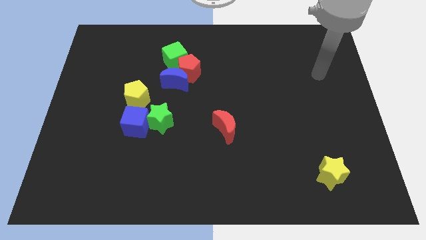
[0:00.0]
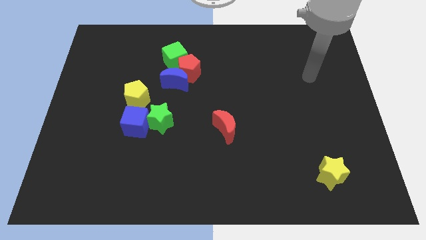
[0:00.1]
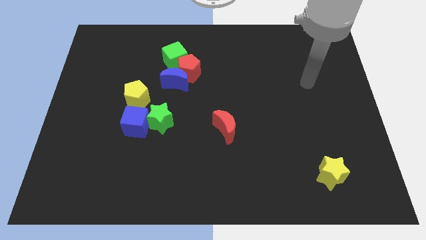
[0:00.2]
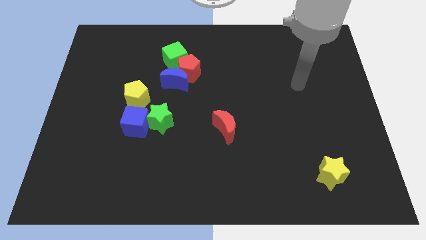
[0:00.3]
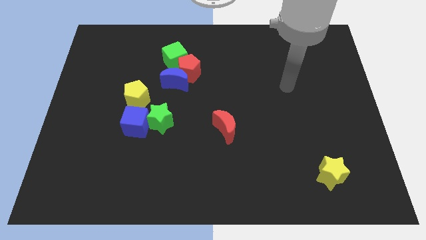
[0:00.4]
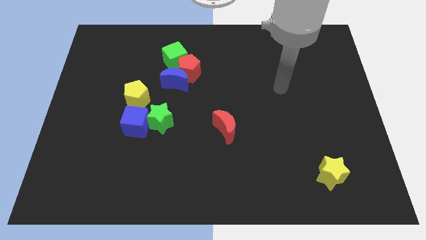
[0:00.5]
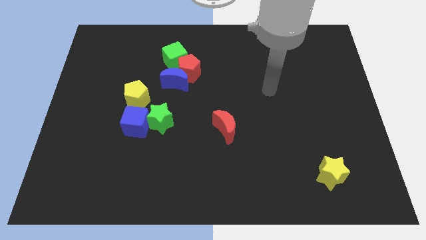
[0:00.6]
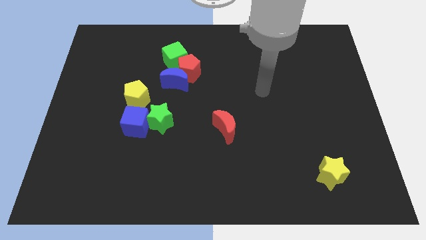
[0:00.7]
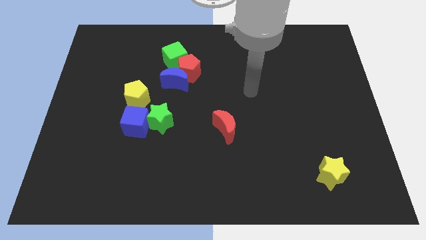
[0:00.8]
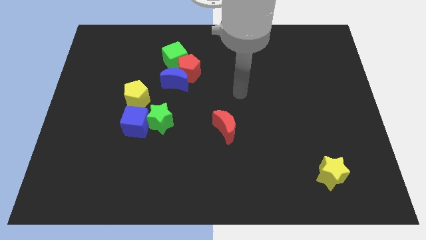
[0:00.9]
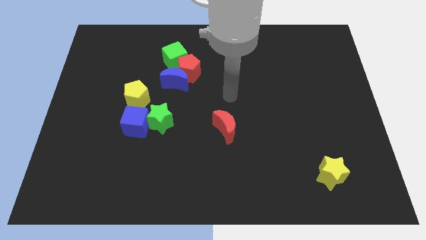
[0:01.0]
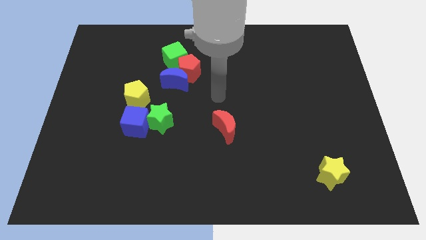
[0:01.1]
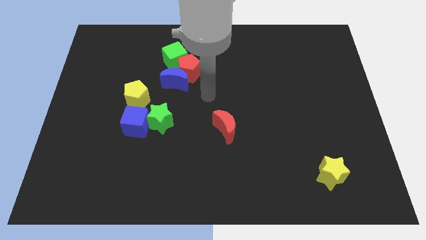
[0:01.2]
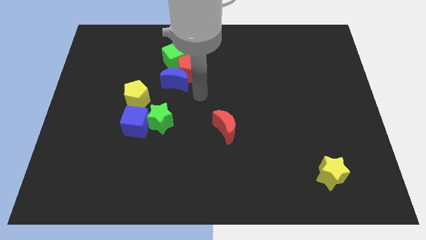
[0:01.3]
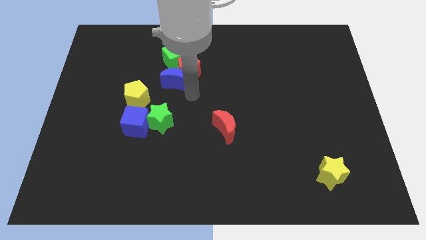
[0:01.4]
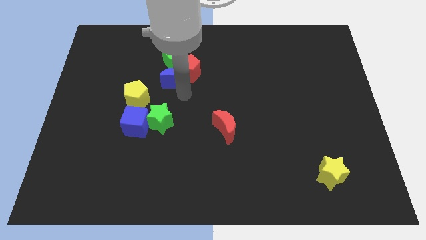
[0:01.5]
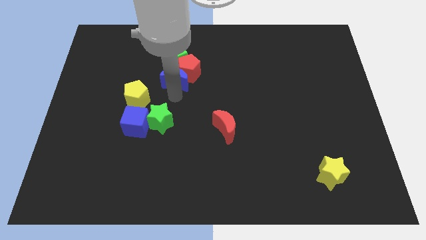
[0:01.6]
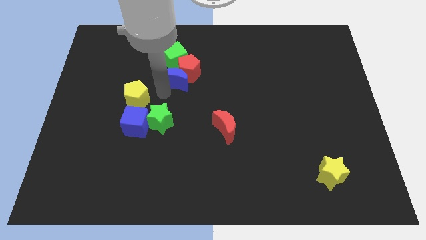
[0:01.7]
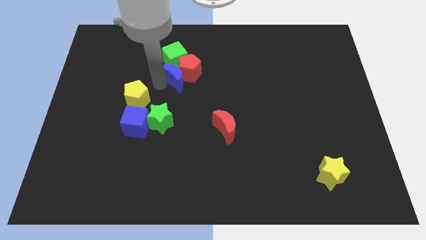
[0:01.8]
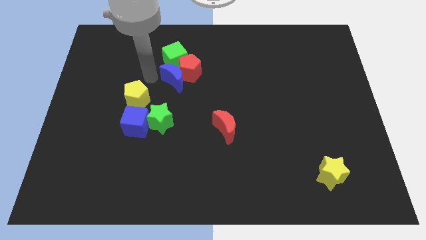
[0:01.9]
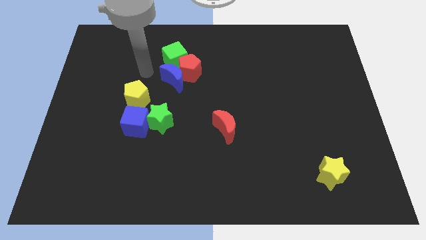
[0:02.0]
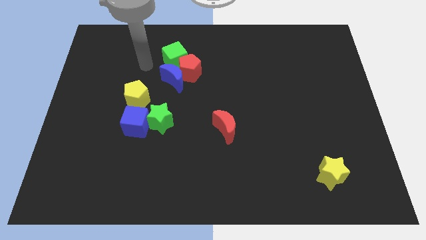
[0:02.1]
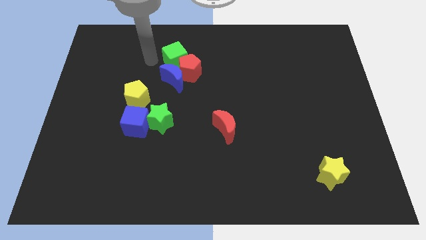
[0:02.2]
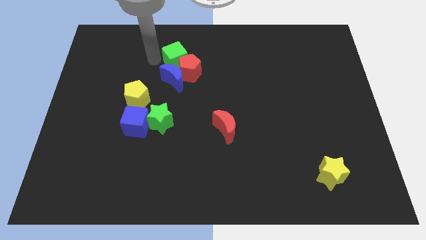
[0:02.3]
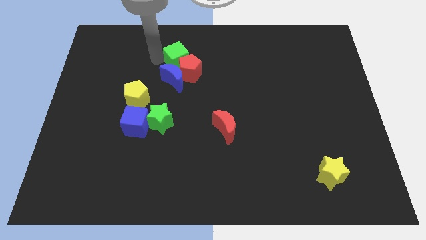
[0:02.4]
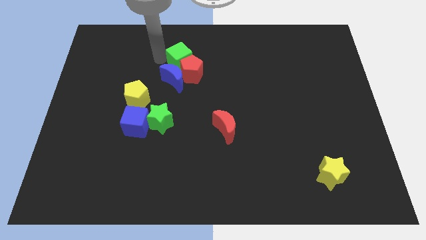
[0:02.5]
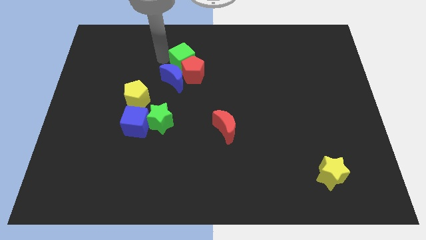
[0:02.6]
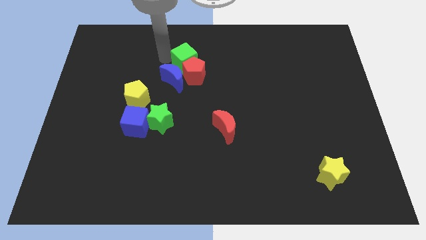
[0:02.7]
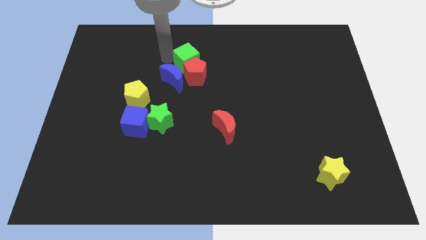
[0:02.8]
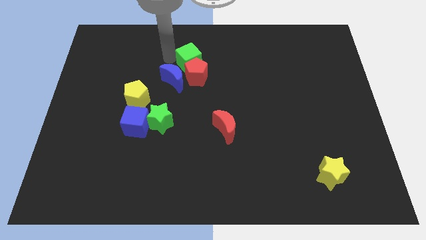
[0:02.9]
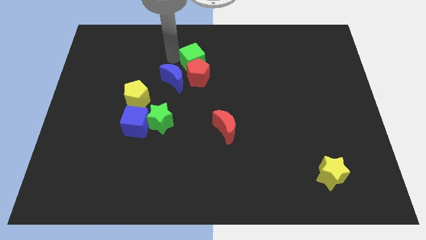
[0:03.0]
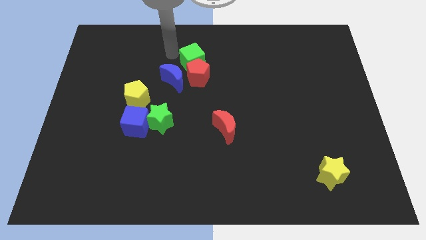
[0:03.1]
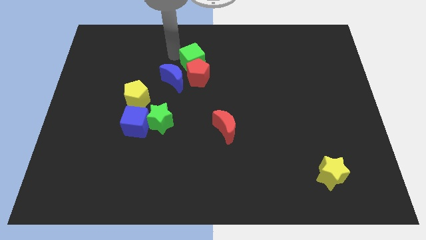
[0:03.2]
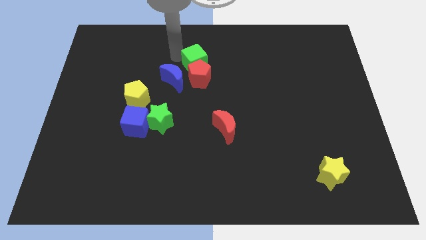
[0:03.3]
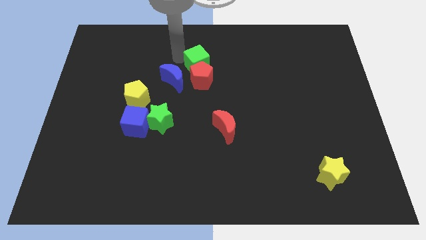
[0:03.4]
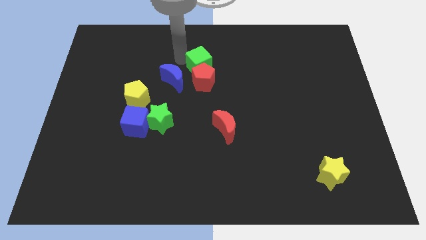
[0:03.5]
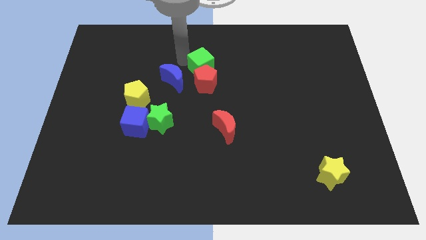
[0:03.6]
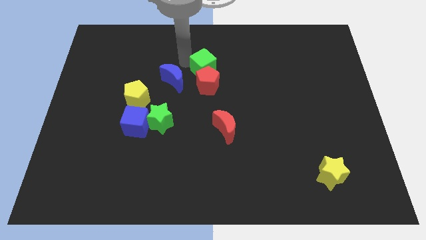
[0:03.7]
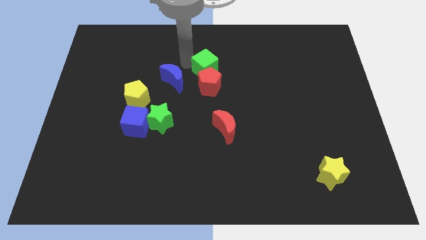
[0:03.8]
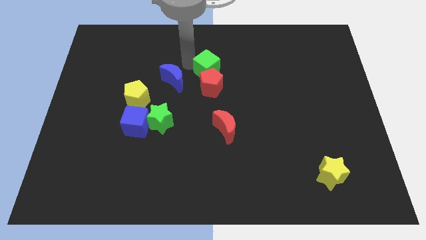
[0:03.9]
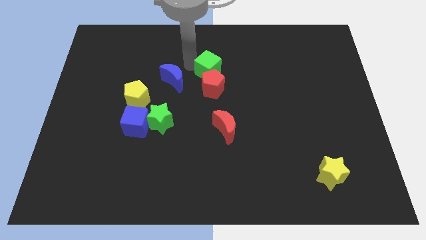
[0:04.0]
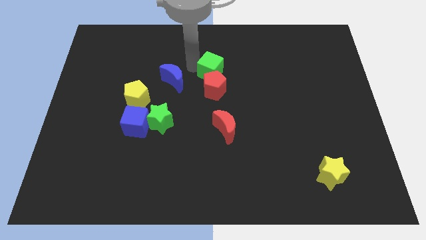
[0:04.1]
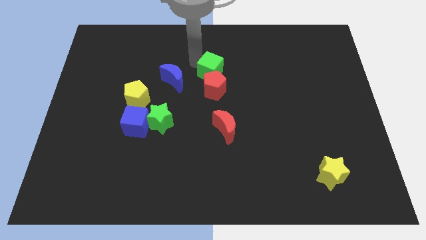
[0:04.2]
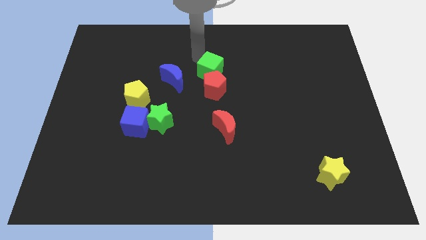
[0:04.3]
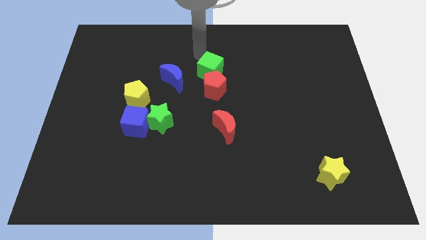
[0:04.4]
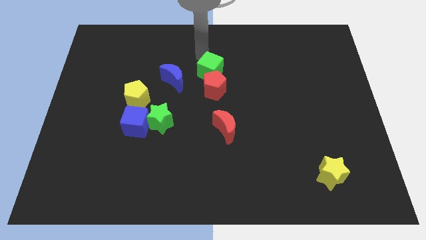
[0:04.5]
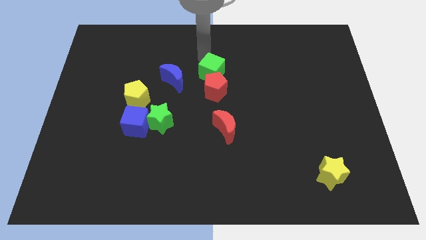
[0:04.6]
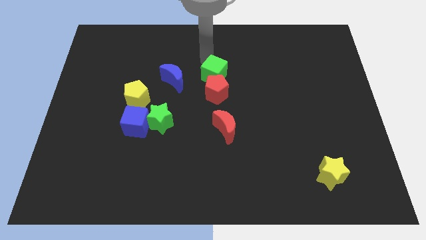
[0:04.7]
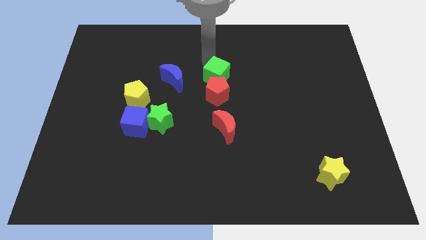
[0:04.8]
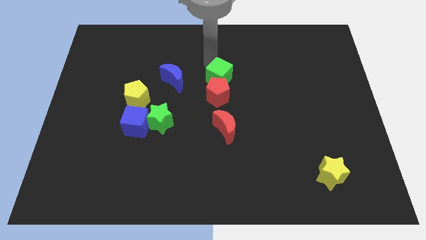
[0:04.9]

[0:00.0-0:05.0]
put the green cube to the top of the red moon

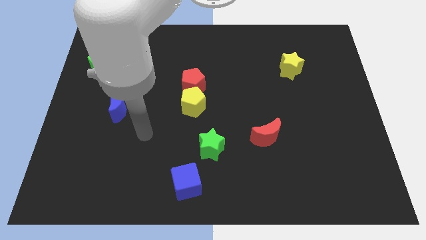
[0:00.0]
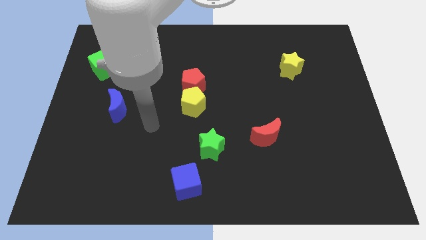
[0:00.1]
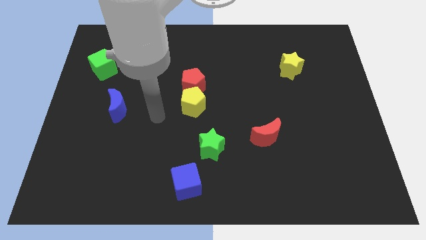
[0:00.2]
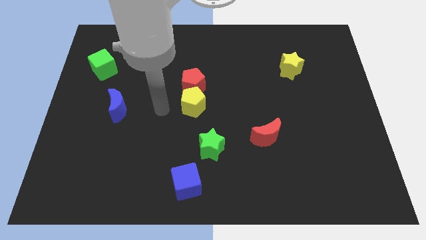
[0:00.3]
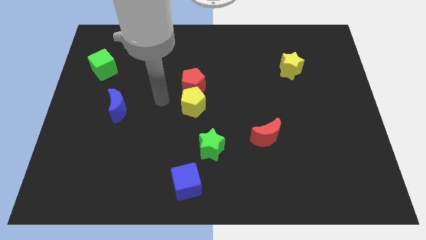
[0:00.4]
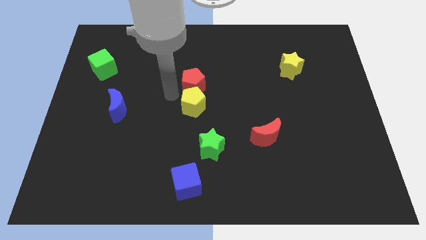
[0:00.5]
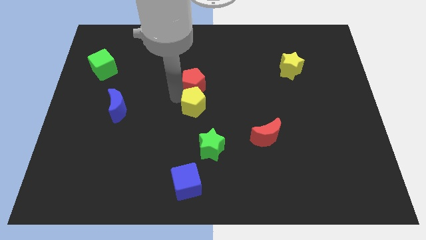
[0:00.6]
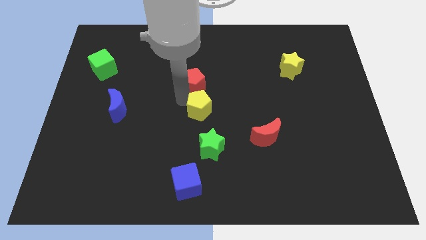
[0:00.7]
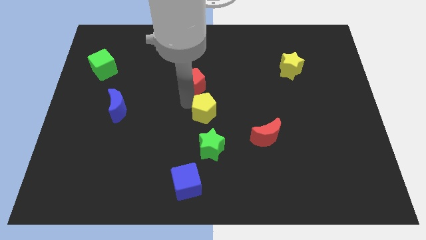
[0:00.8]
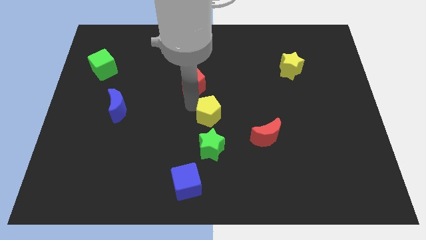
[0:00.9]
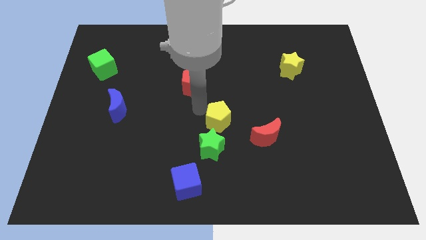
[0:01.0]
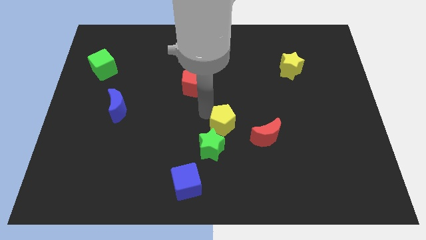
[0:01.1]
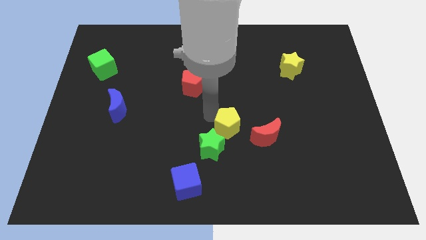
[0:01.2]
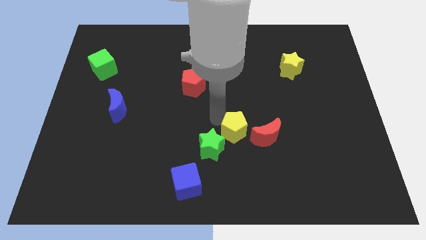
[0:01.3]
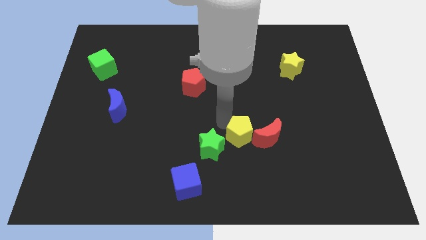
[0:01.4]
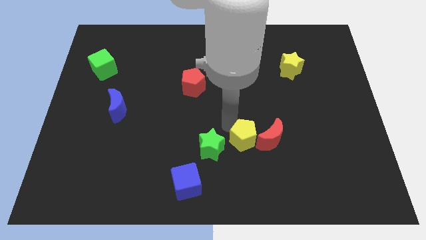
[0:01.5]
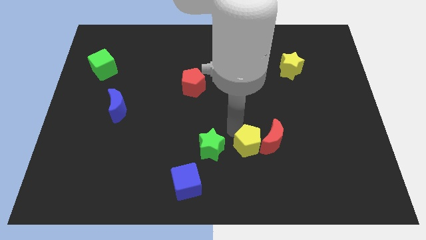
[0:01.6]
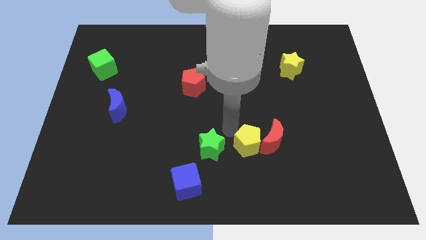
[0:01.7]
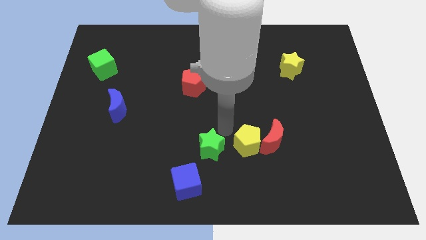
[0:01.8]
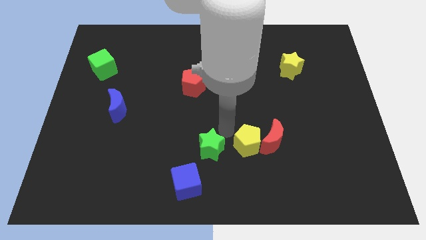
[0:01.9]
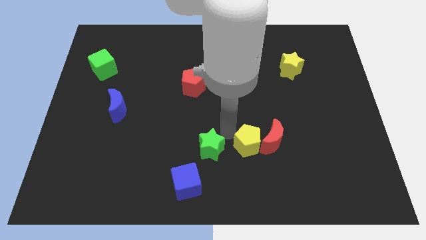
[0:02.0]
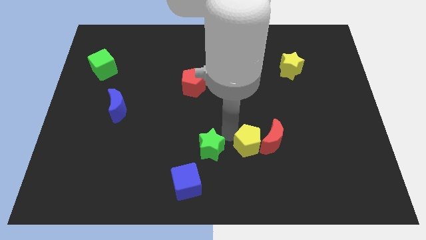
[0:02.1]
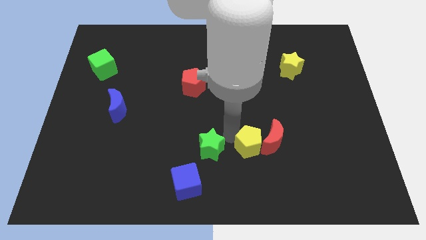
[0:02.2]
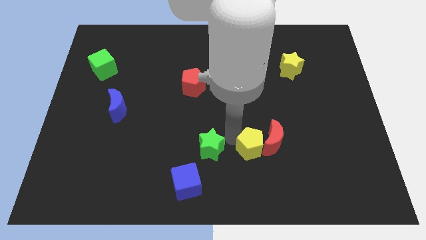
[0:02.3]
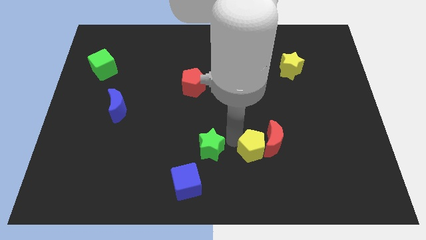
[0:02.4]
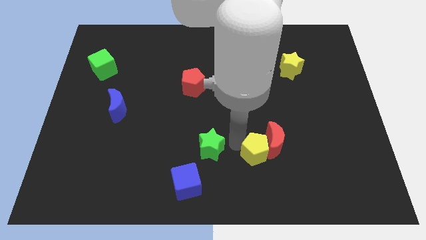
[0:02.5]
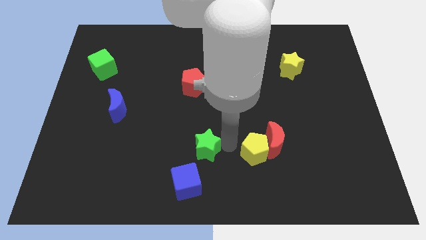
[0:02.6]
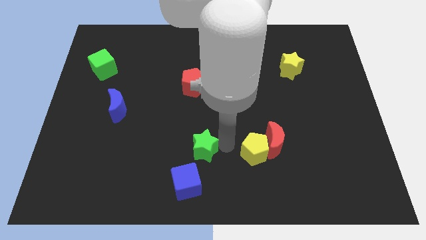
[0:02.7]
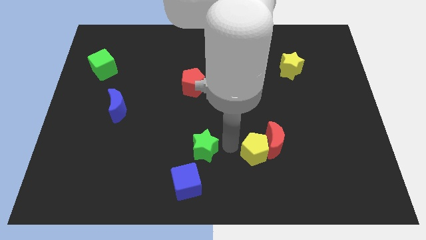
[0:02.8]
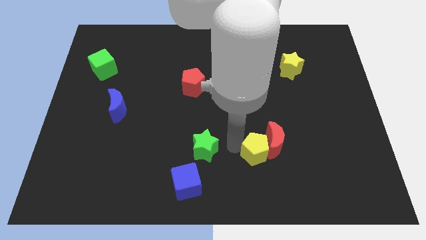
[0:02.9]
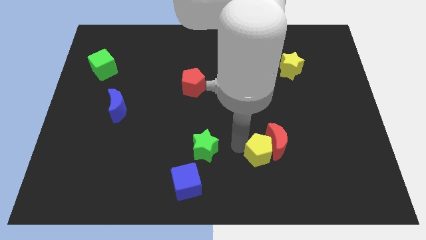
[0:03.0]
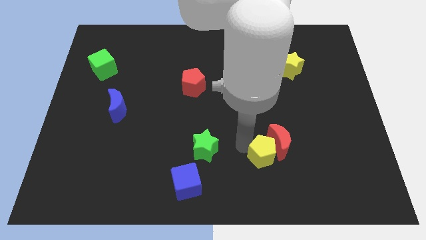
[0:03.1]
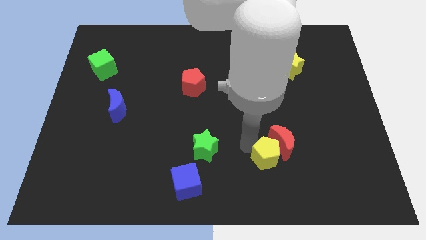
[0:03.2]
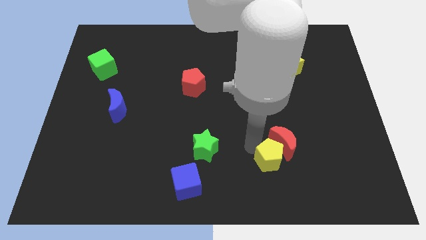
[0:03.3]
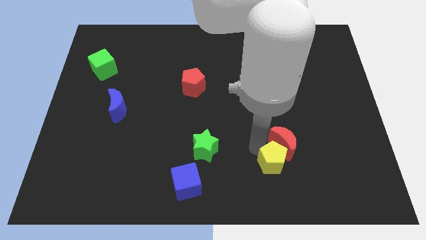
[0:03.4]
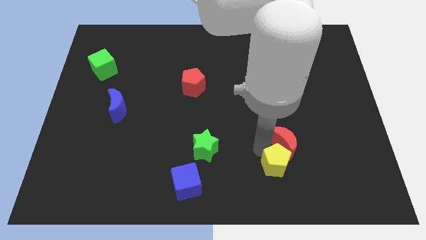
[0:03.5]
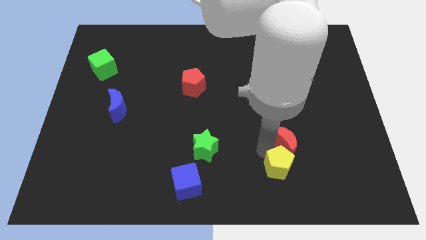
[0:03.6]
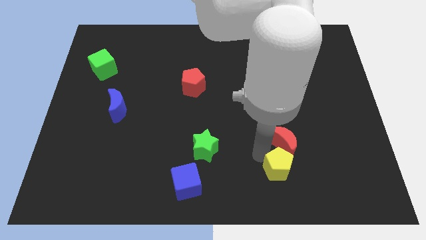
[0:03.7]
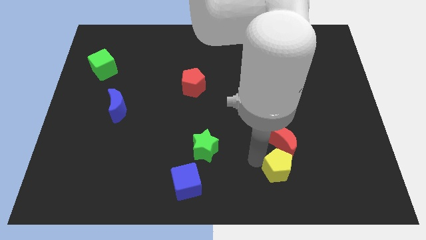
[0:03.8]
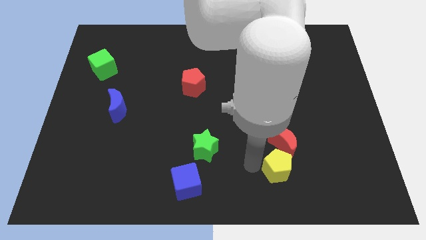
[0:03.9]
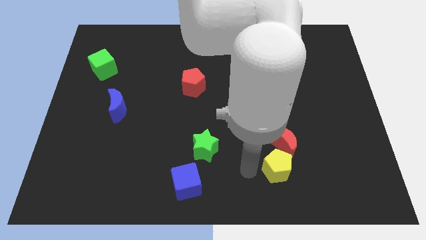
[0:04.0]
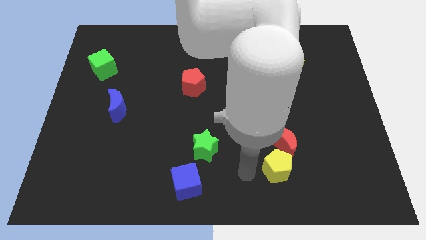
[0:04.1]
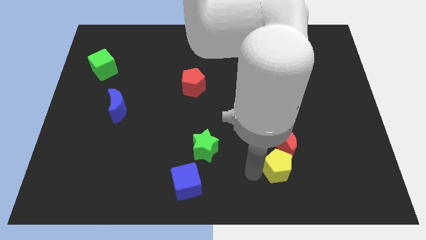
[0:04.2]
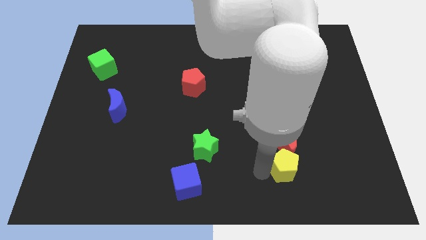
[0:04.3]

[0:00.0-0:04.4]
push the yellow pentagon to the bottom right side of the red moon
